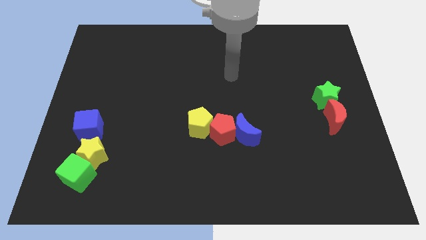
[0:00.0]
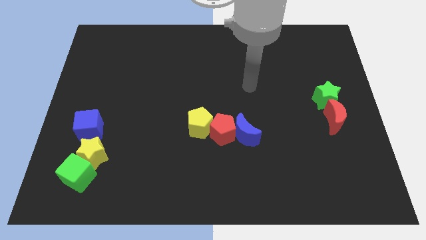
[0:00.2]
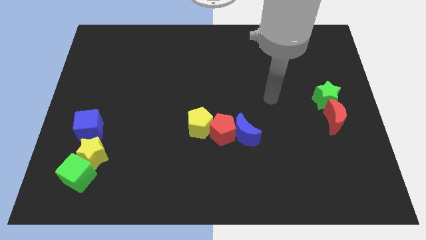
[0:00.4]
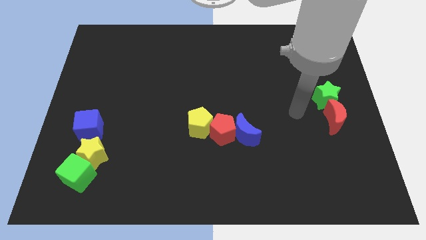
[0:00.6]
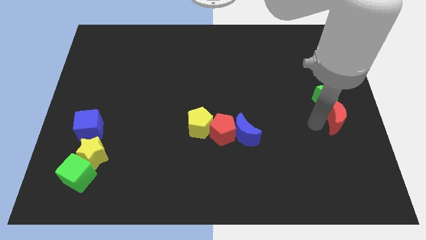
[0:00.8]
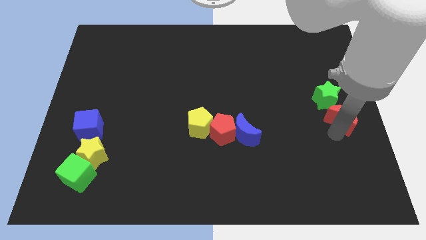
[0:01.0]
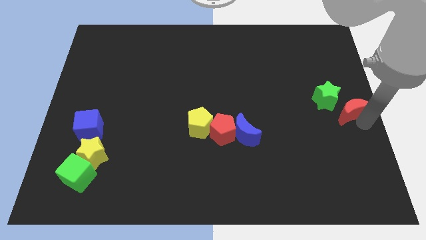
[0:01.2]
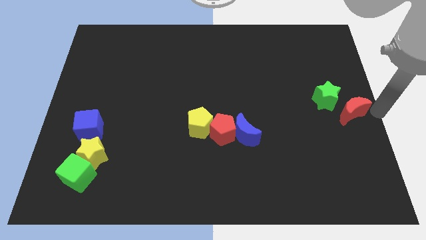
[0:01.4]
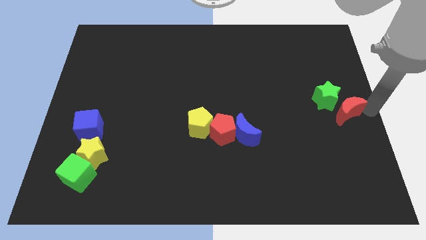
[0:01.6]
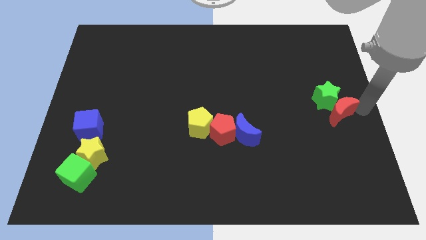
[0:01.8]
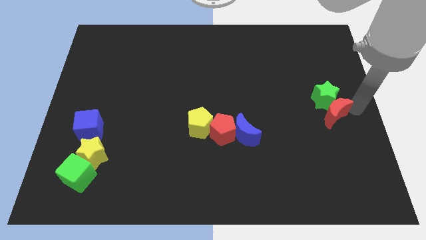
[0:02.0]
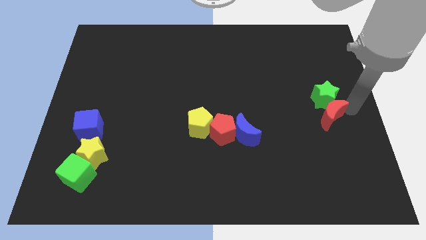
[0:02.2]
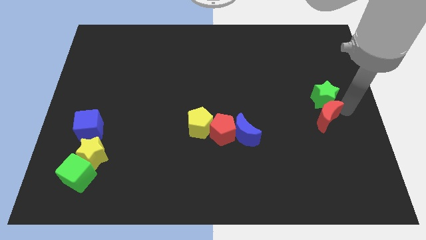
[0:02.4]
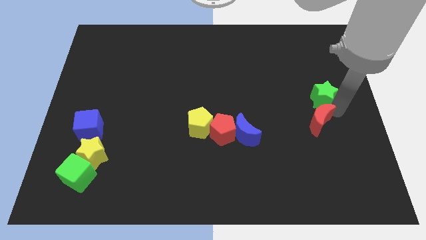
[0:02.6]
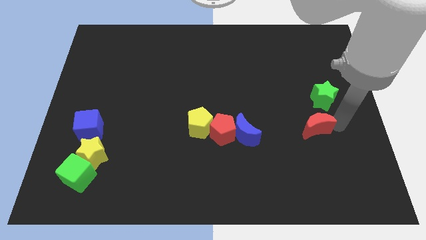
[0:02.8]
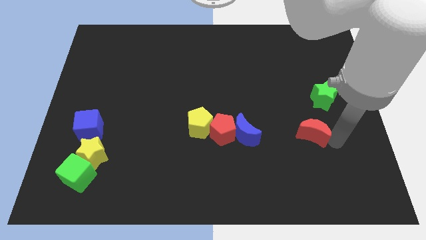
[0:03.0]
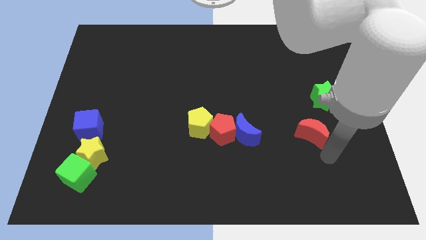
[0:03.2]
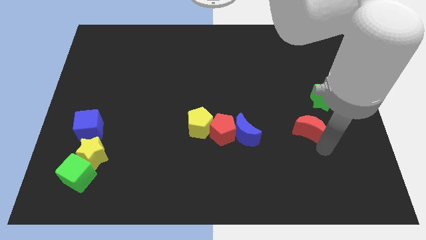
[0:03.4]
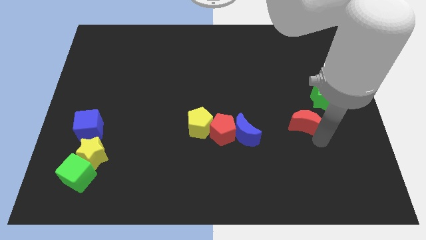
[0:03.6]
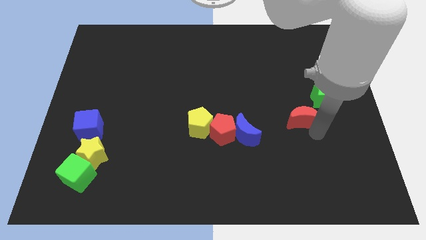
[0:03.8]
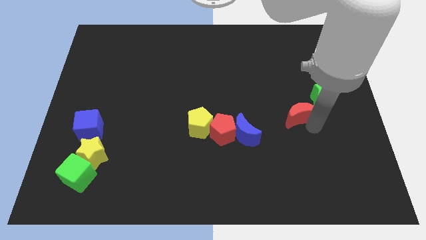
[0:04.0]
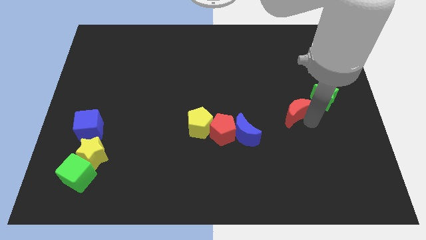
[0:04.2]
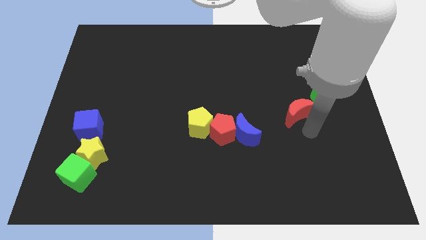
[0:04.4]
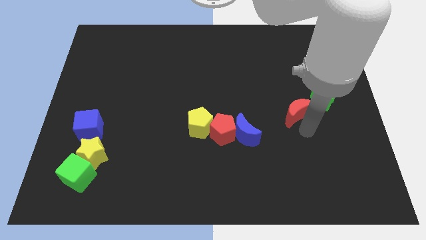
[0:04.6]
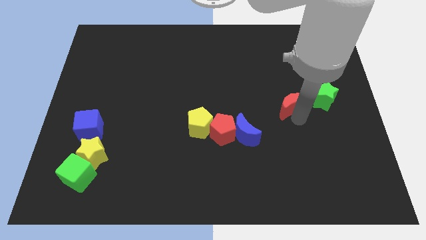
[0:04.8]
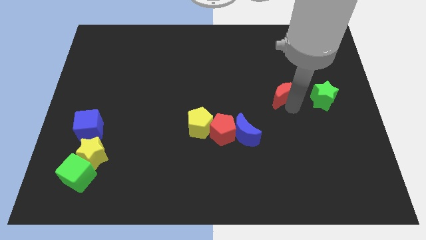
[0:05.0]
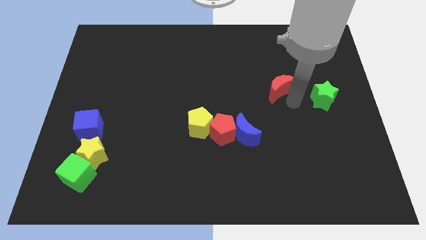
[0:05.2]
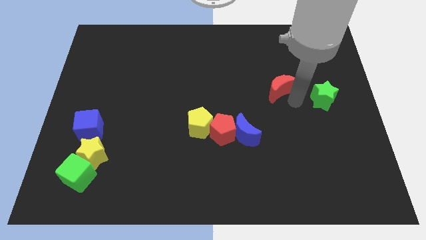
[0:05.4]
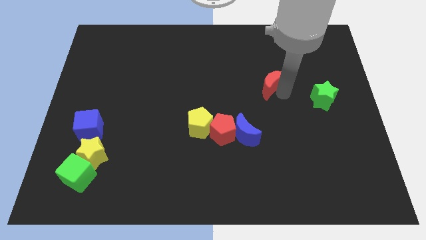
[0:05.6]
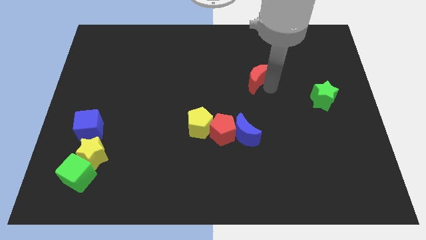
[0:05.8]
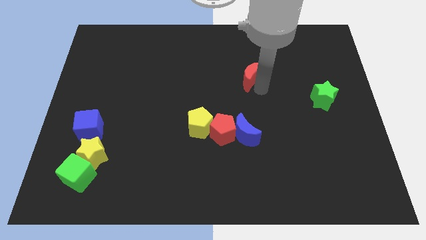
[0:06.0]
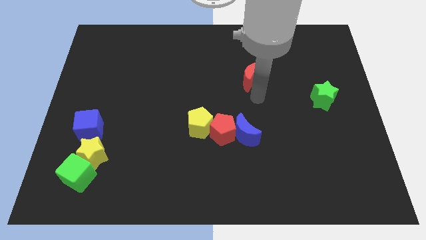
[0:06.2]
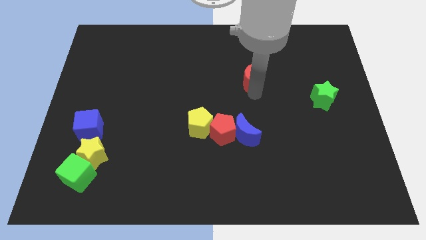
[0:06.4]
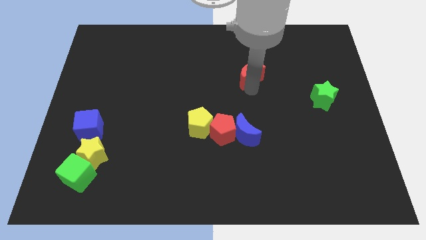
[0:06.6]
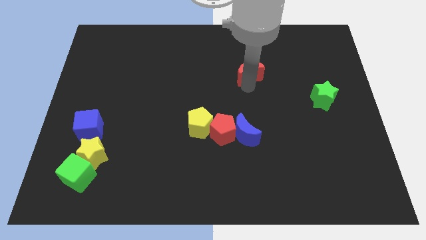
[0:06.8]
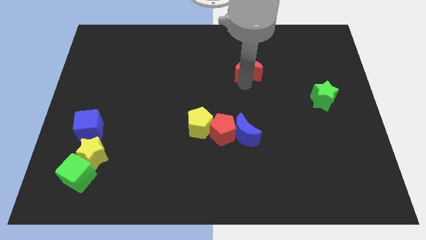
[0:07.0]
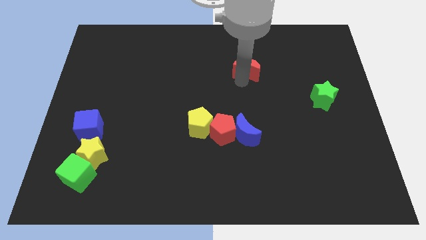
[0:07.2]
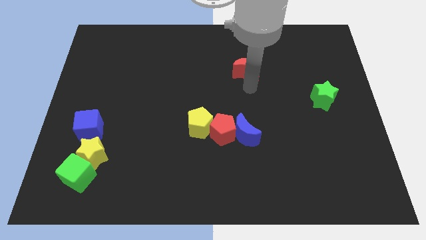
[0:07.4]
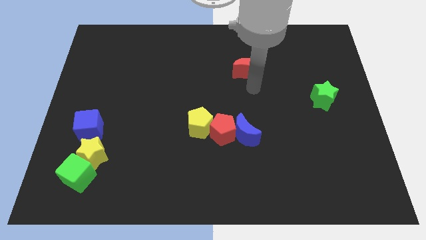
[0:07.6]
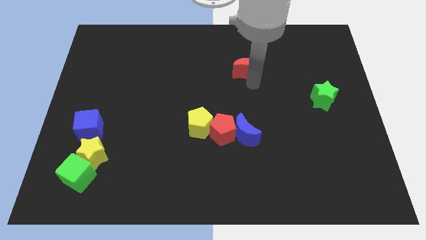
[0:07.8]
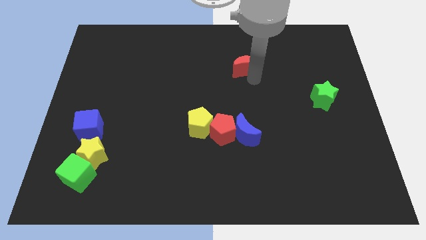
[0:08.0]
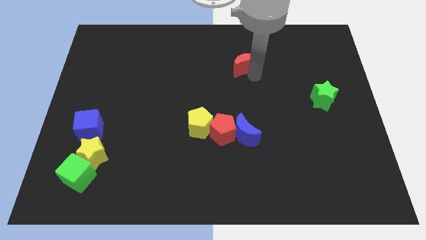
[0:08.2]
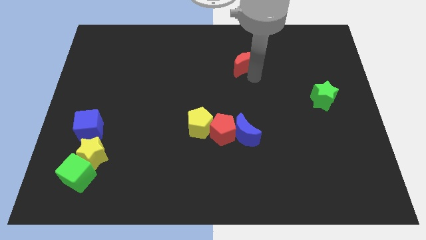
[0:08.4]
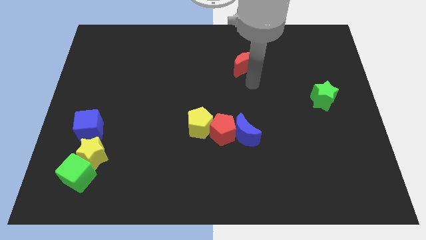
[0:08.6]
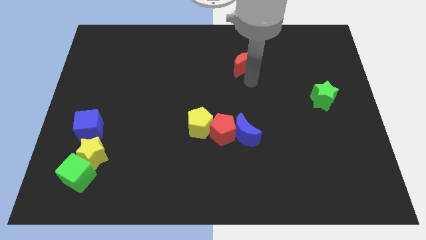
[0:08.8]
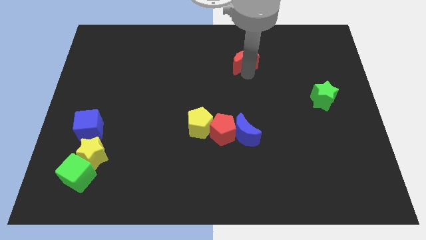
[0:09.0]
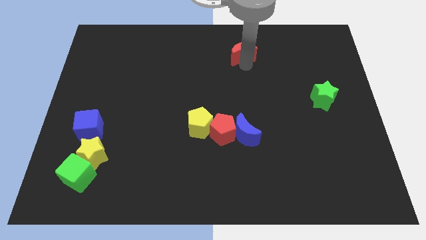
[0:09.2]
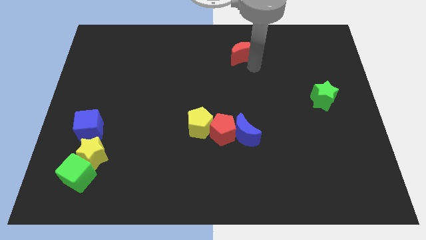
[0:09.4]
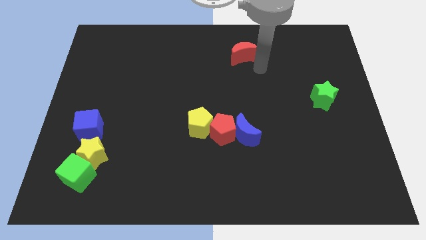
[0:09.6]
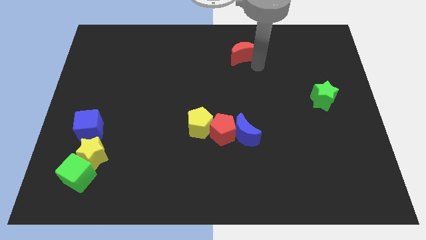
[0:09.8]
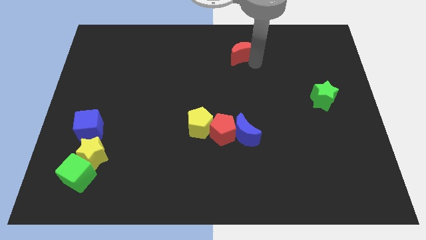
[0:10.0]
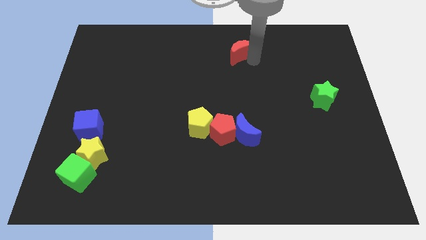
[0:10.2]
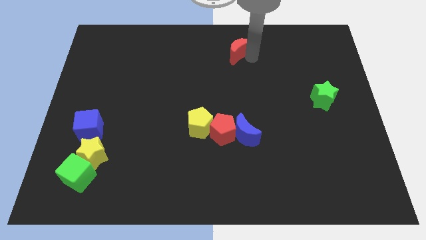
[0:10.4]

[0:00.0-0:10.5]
push the red moon to the top side

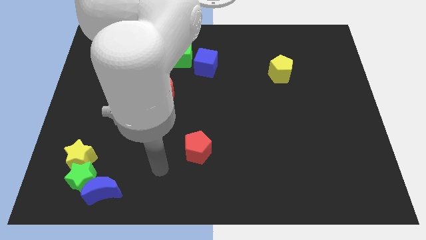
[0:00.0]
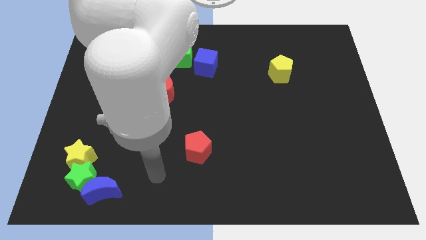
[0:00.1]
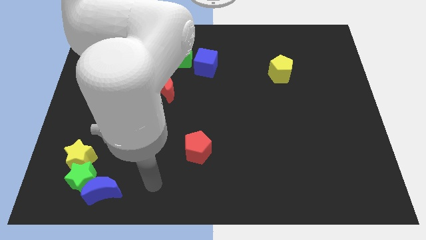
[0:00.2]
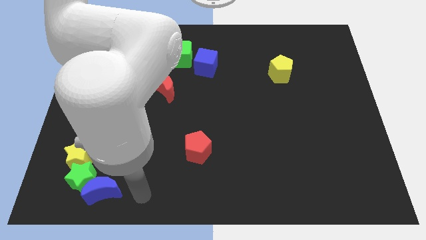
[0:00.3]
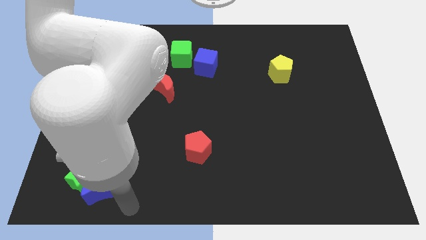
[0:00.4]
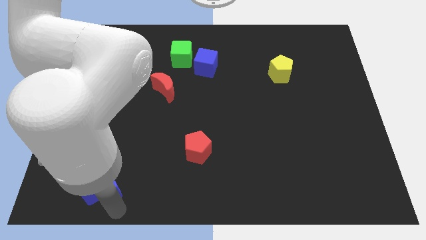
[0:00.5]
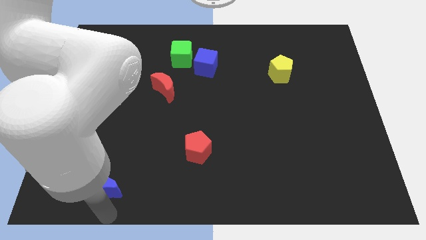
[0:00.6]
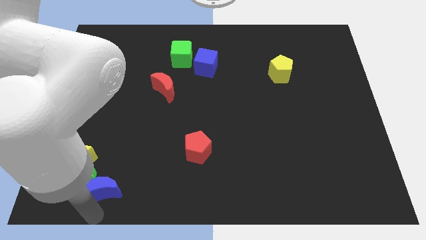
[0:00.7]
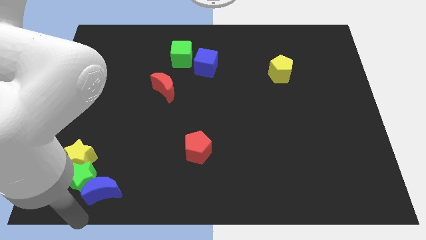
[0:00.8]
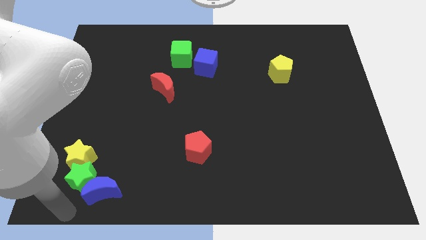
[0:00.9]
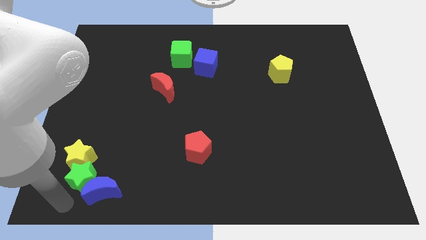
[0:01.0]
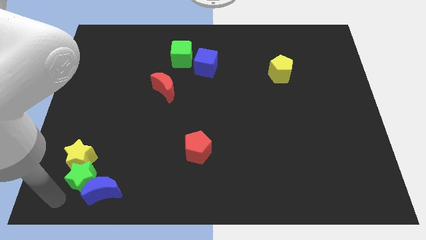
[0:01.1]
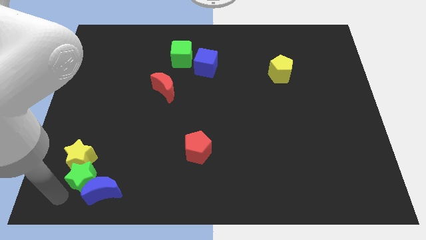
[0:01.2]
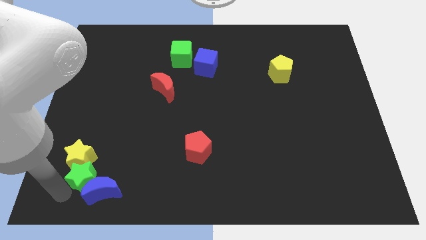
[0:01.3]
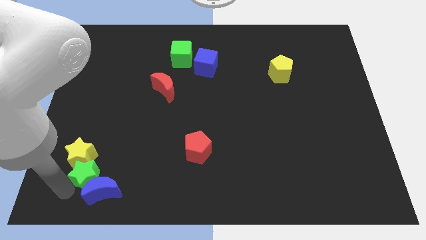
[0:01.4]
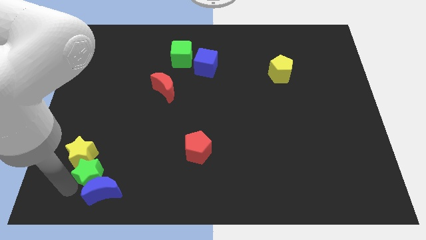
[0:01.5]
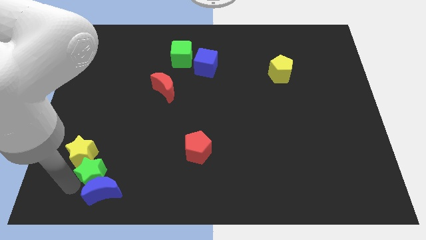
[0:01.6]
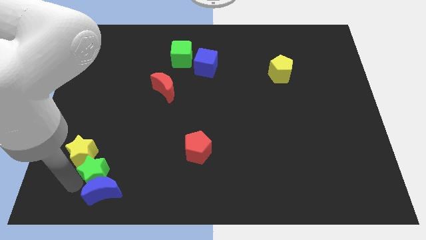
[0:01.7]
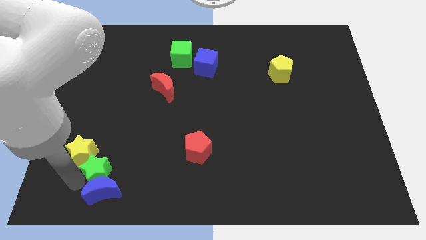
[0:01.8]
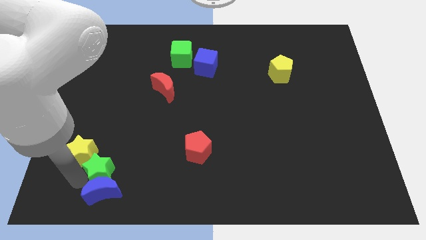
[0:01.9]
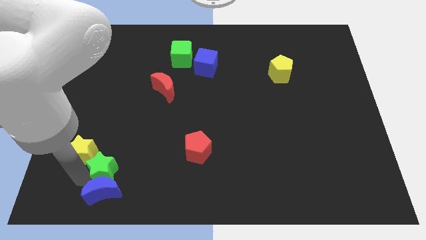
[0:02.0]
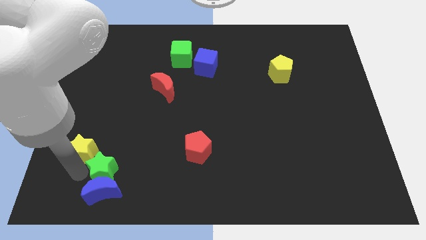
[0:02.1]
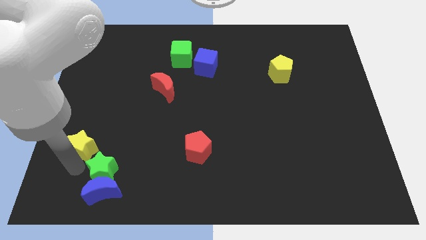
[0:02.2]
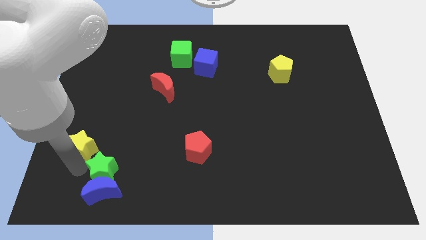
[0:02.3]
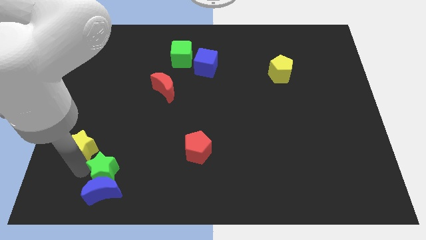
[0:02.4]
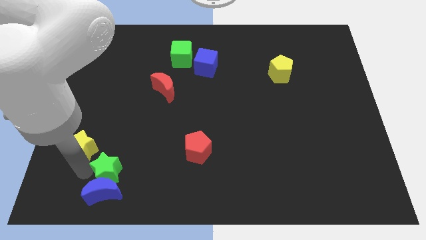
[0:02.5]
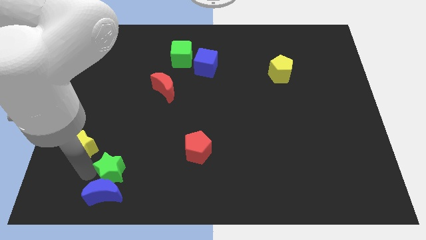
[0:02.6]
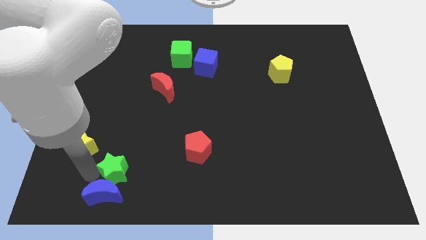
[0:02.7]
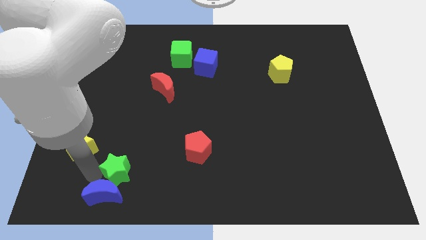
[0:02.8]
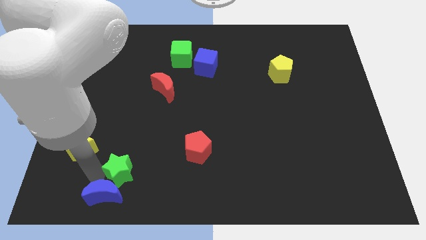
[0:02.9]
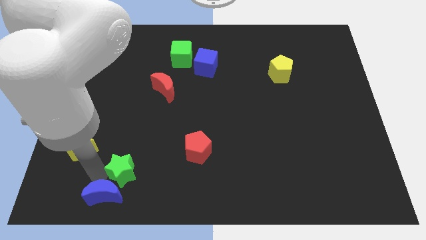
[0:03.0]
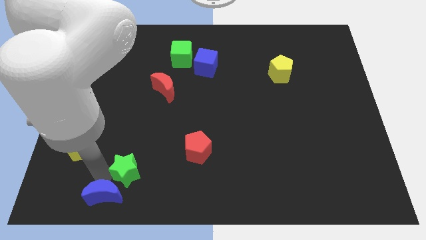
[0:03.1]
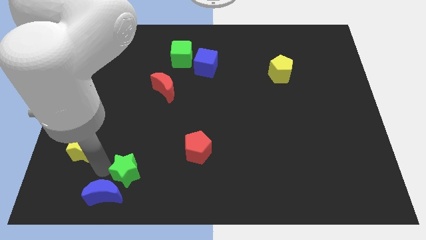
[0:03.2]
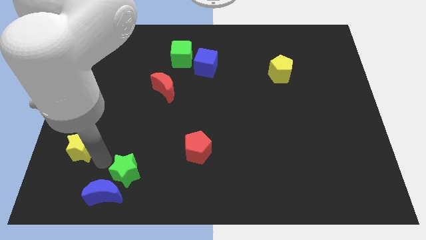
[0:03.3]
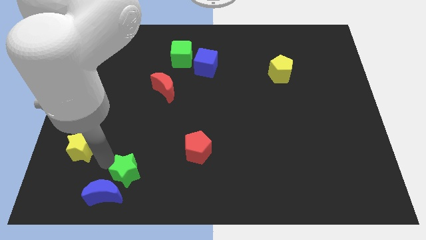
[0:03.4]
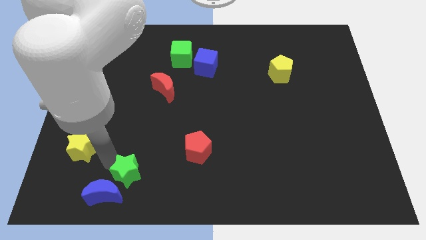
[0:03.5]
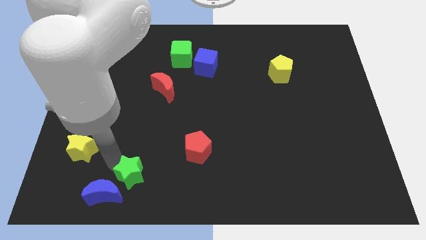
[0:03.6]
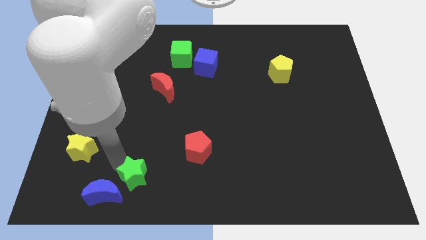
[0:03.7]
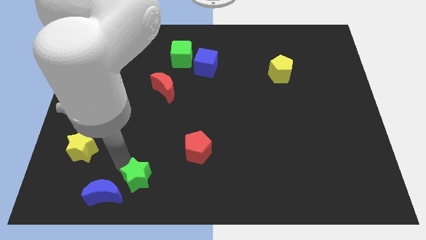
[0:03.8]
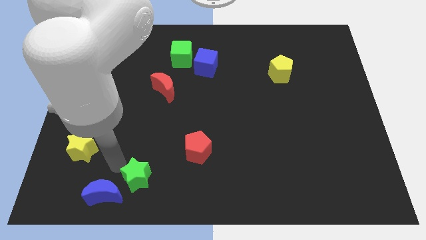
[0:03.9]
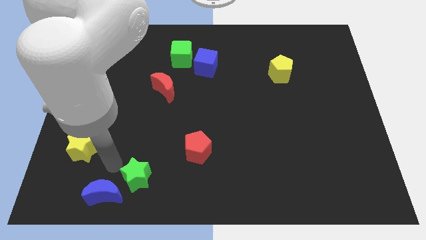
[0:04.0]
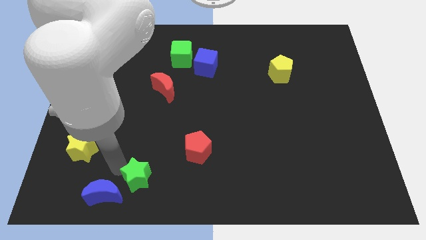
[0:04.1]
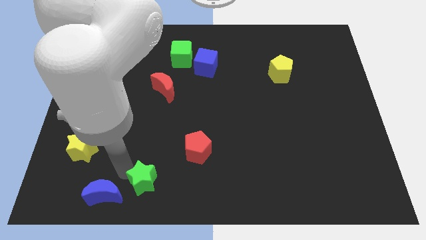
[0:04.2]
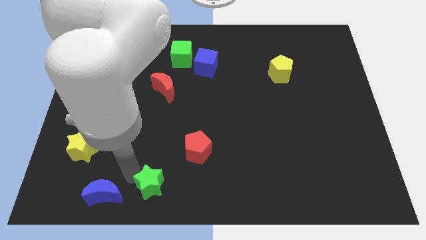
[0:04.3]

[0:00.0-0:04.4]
slide the green star to the bottom side
